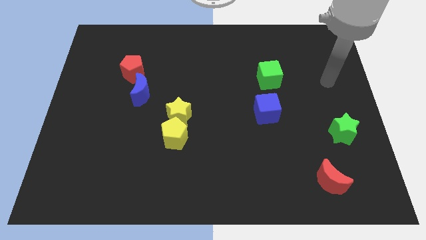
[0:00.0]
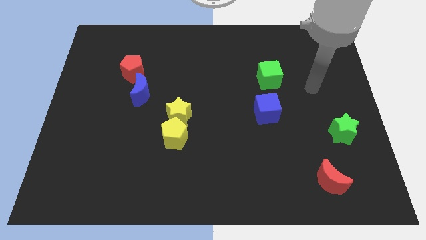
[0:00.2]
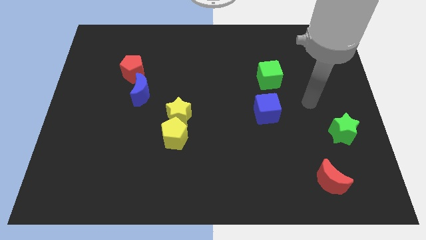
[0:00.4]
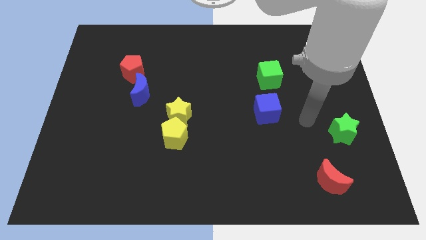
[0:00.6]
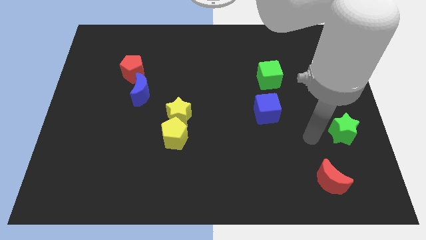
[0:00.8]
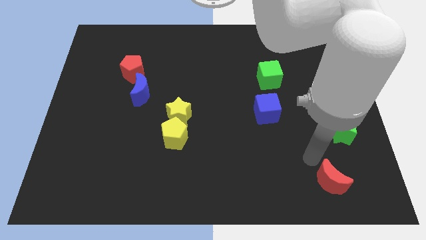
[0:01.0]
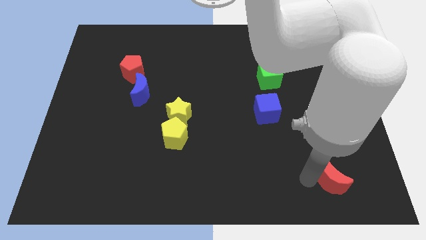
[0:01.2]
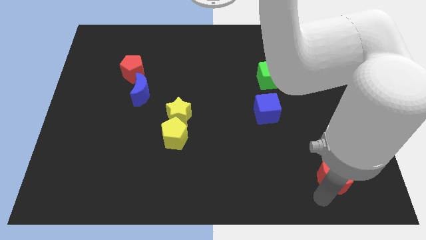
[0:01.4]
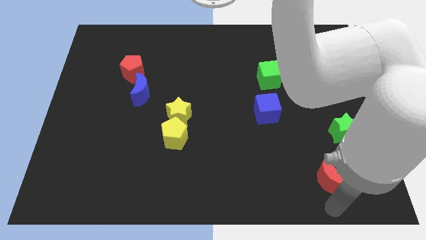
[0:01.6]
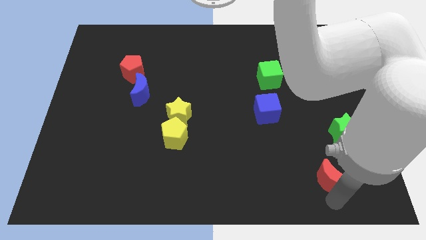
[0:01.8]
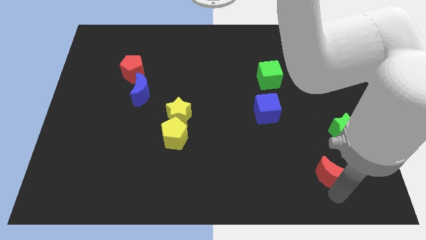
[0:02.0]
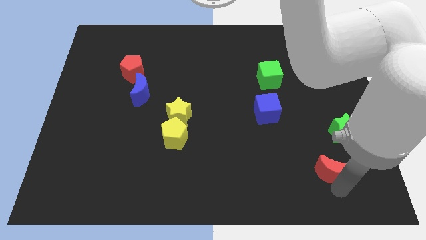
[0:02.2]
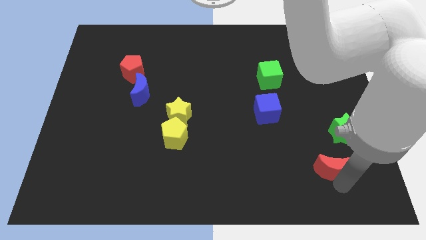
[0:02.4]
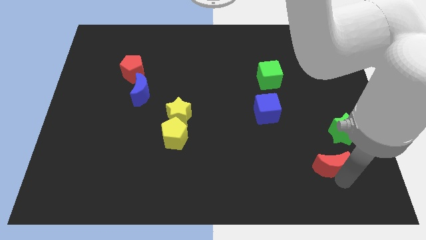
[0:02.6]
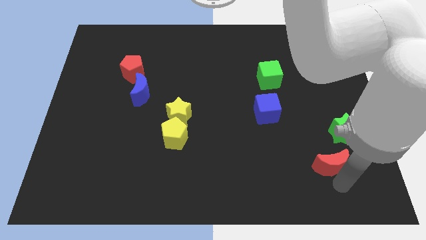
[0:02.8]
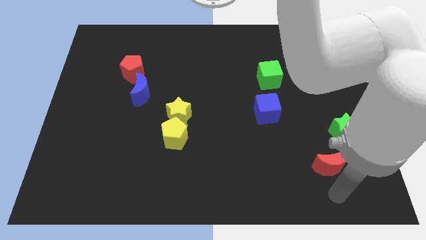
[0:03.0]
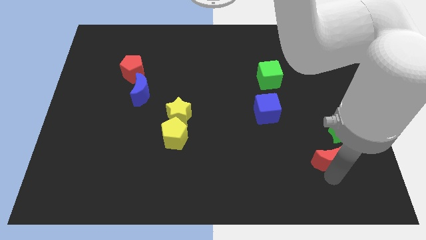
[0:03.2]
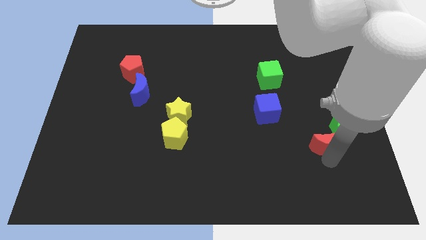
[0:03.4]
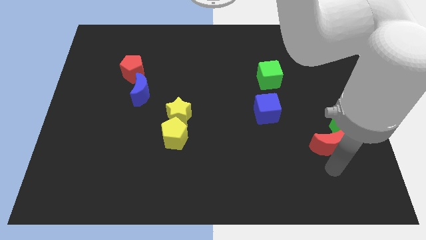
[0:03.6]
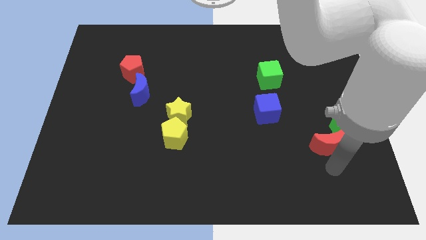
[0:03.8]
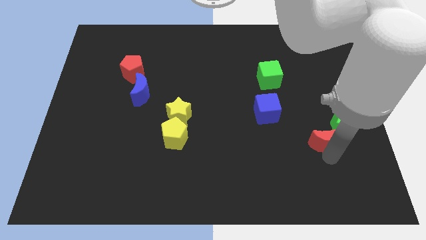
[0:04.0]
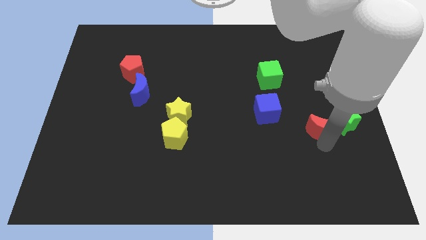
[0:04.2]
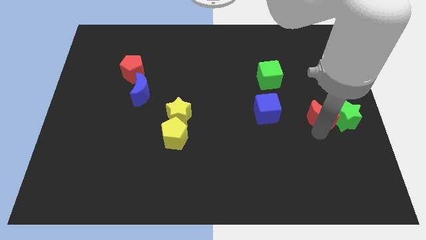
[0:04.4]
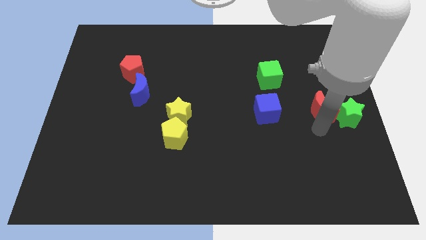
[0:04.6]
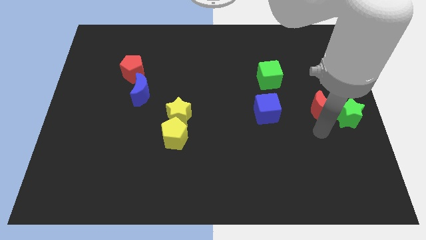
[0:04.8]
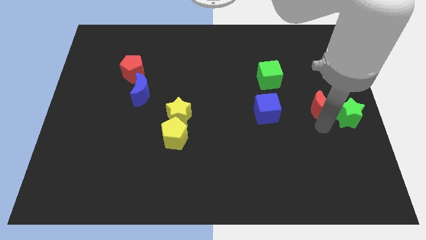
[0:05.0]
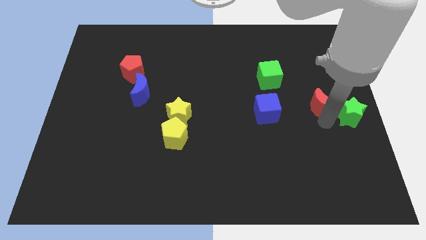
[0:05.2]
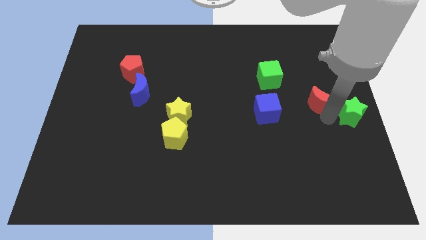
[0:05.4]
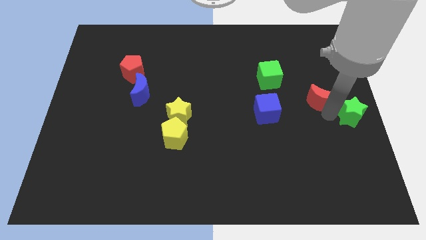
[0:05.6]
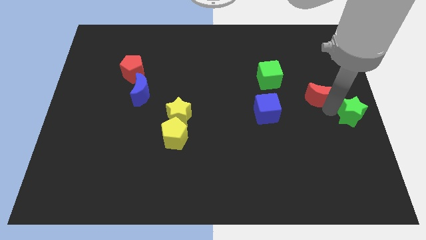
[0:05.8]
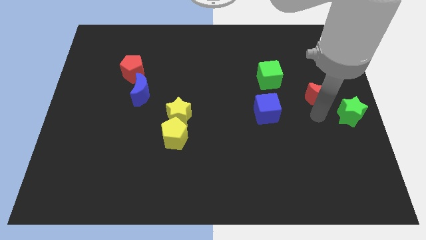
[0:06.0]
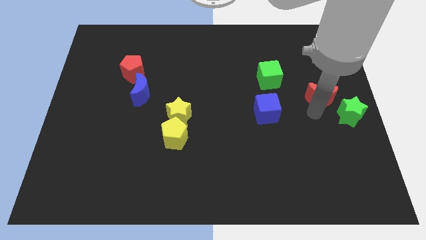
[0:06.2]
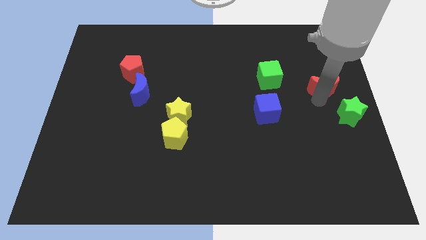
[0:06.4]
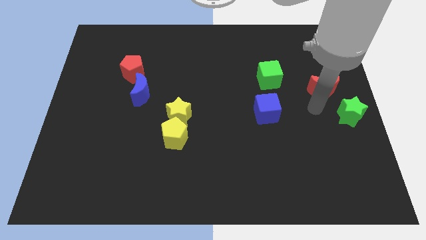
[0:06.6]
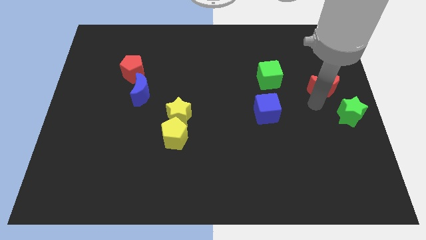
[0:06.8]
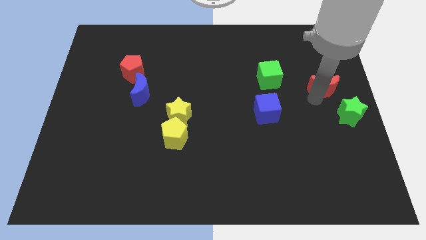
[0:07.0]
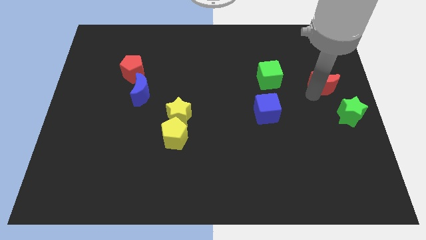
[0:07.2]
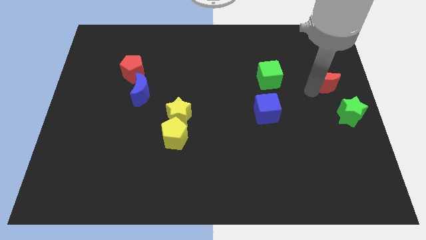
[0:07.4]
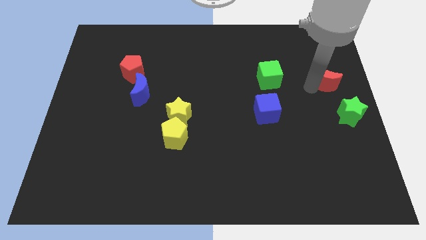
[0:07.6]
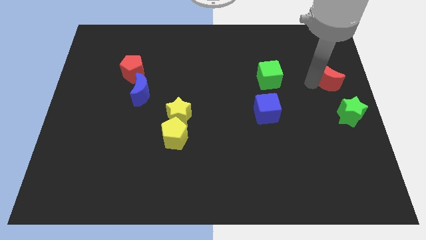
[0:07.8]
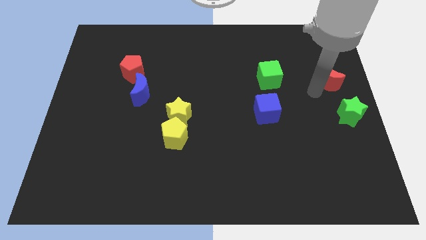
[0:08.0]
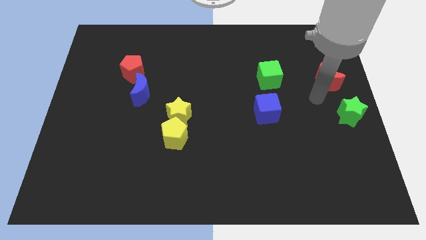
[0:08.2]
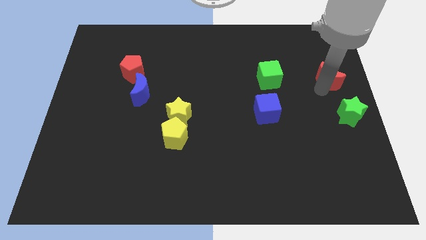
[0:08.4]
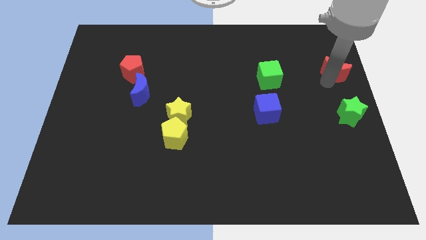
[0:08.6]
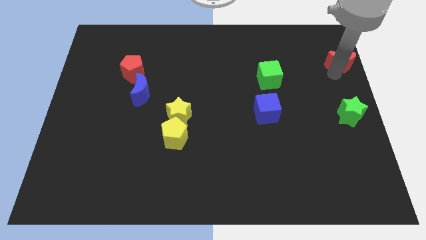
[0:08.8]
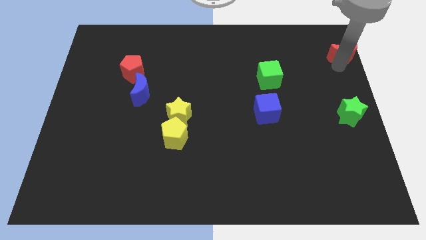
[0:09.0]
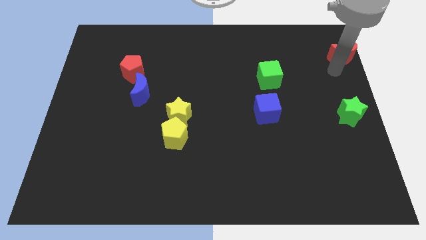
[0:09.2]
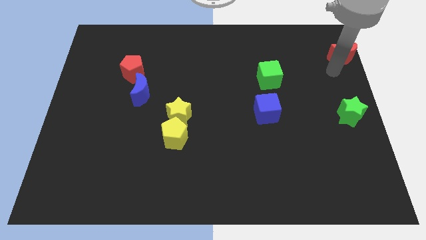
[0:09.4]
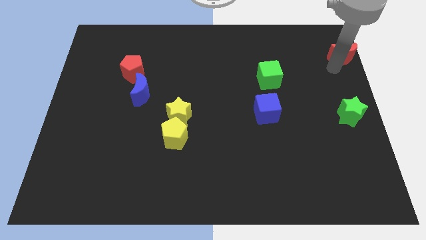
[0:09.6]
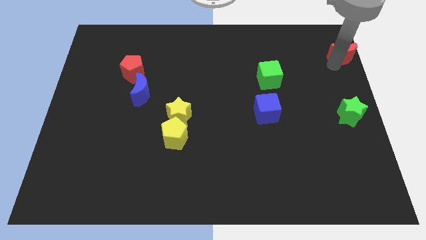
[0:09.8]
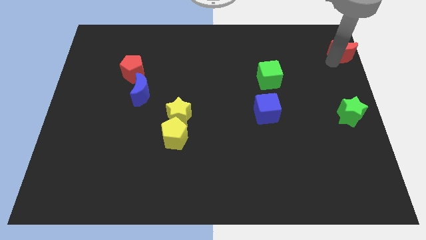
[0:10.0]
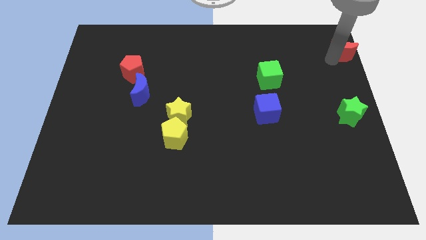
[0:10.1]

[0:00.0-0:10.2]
slide the red moon to the top right of the board

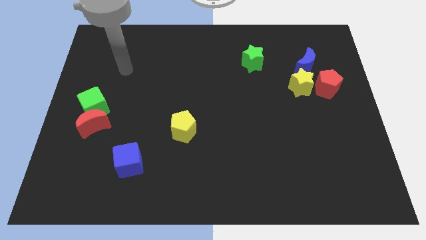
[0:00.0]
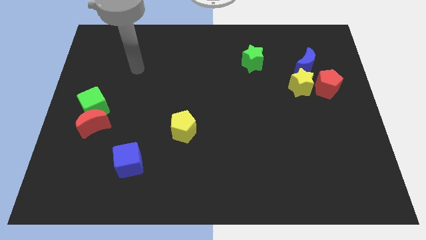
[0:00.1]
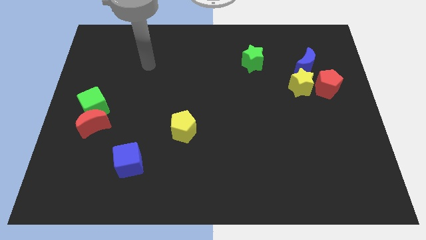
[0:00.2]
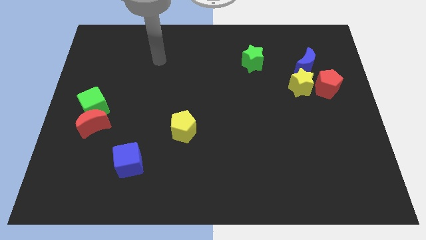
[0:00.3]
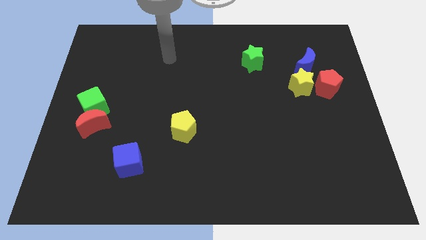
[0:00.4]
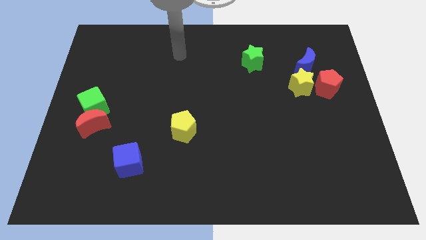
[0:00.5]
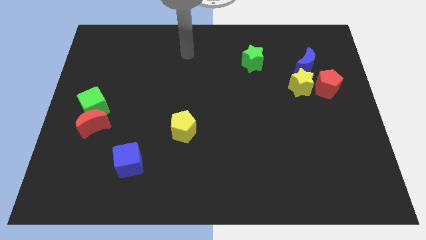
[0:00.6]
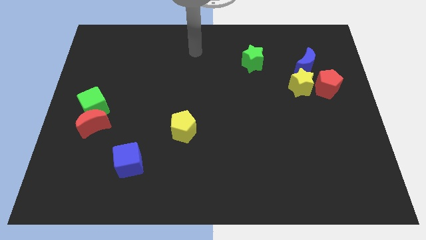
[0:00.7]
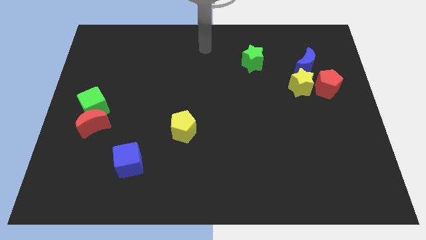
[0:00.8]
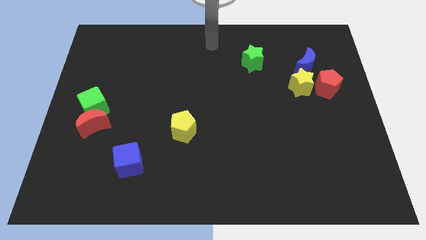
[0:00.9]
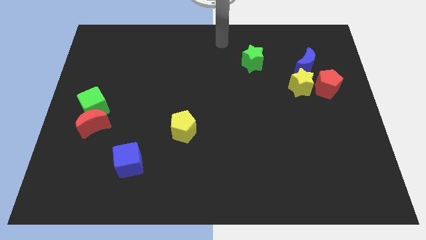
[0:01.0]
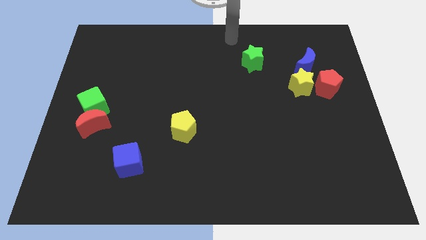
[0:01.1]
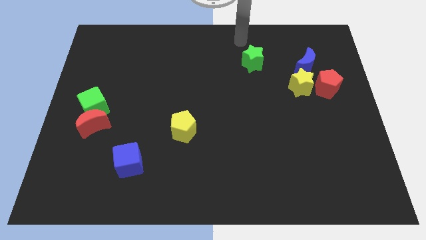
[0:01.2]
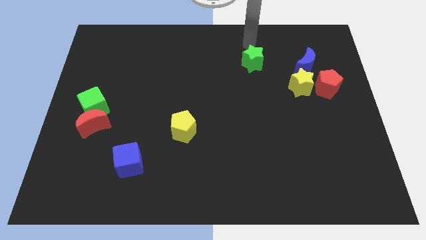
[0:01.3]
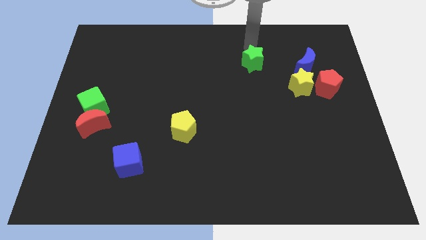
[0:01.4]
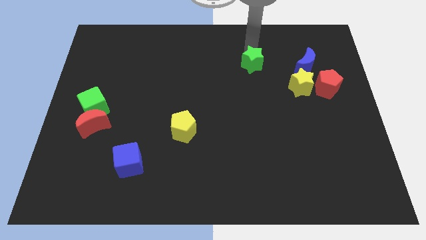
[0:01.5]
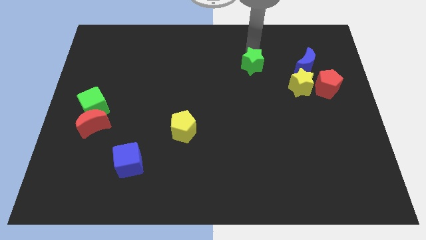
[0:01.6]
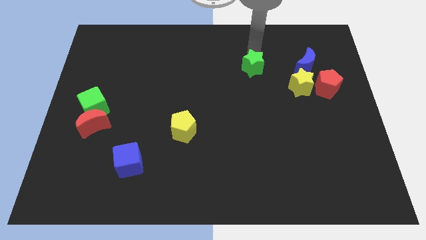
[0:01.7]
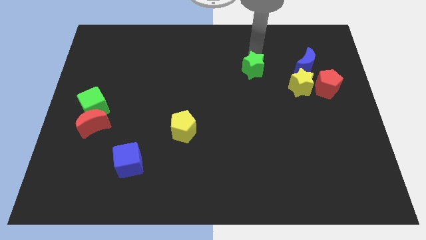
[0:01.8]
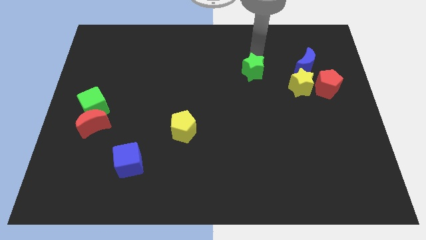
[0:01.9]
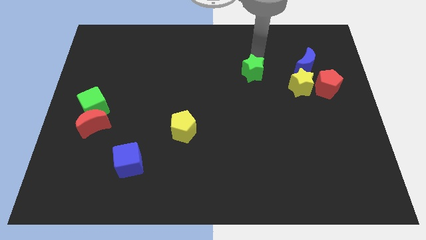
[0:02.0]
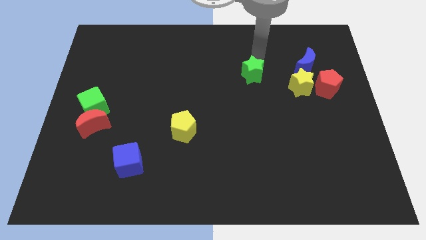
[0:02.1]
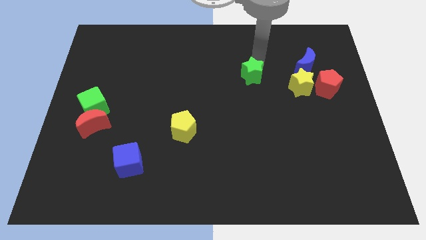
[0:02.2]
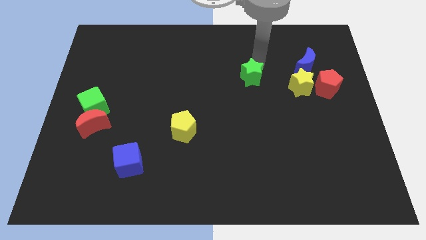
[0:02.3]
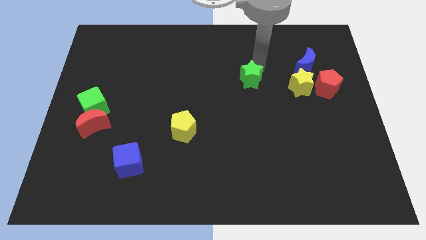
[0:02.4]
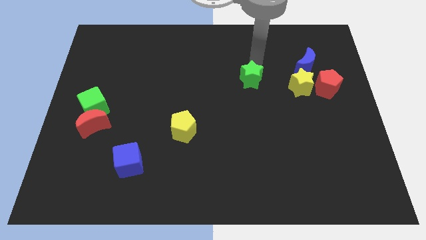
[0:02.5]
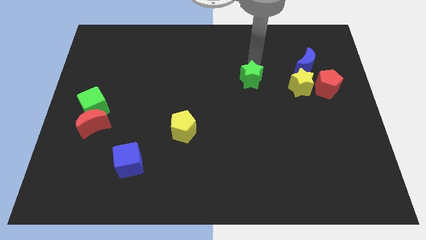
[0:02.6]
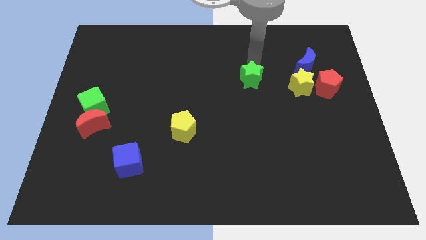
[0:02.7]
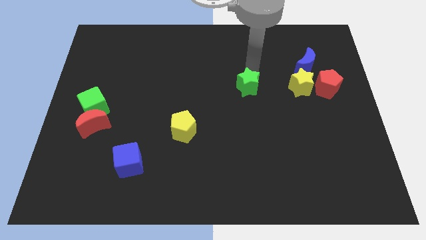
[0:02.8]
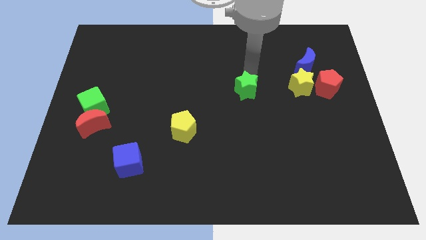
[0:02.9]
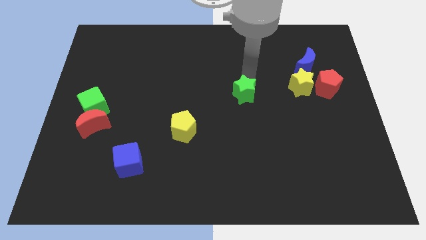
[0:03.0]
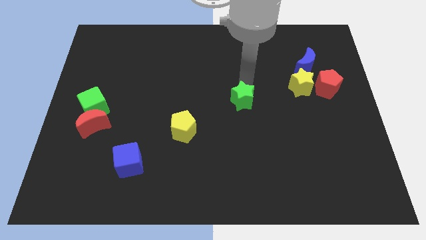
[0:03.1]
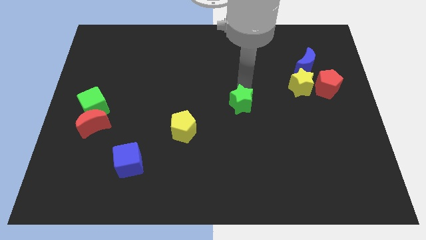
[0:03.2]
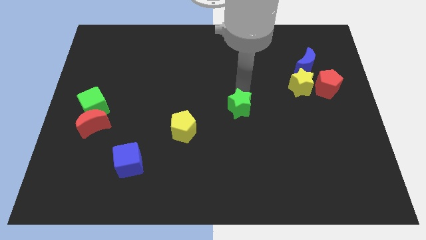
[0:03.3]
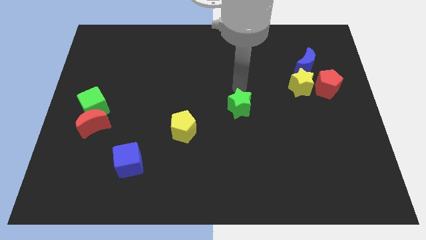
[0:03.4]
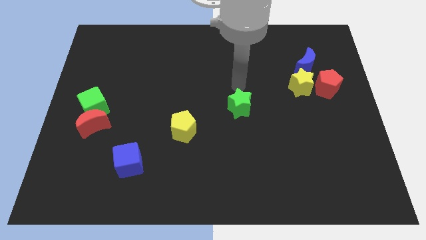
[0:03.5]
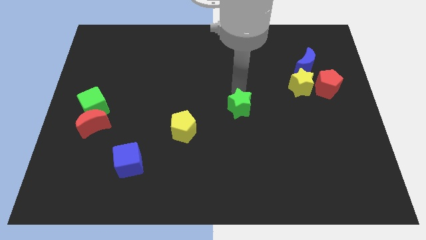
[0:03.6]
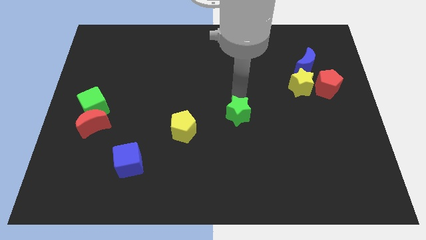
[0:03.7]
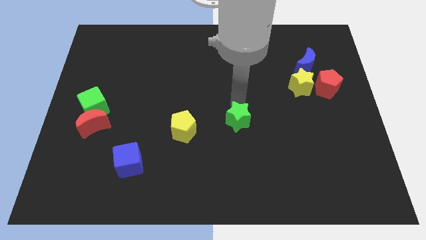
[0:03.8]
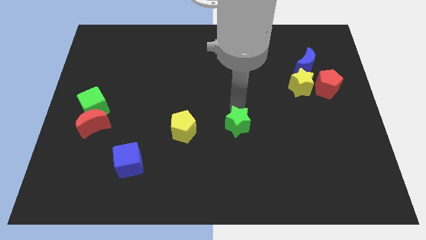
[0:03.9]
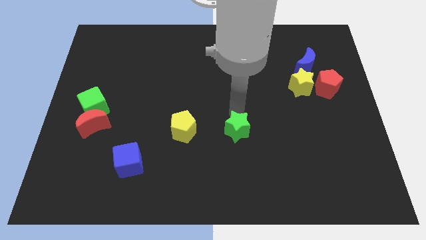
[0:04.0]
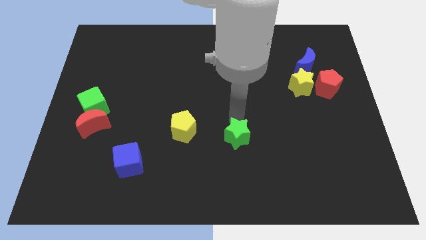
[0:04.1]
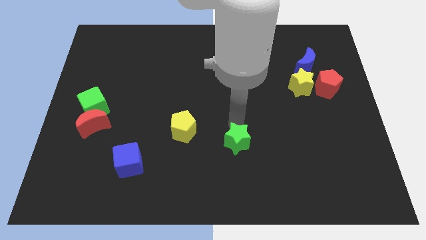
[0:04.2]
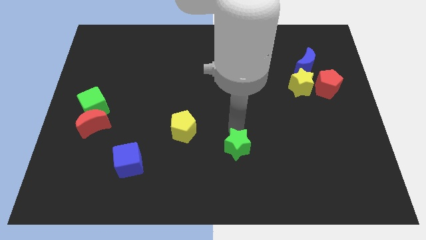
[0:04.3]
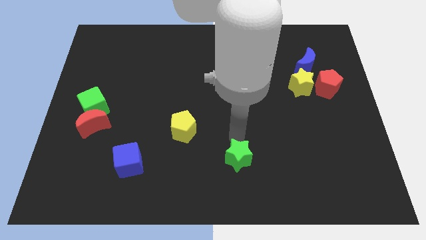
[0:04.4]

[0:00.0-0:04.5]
move the green star to the bottom
